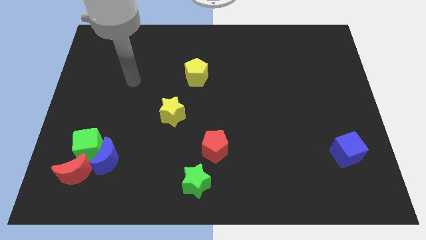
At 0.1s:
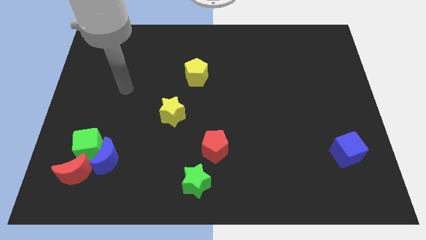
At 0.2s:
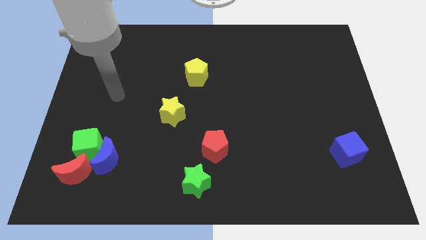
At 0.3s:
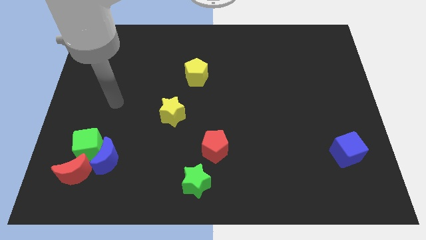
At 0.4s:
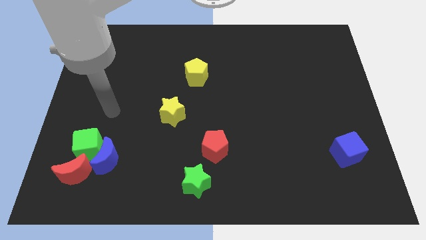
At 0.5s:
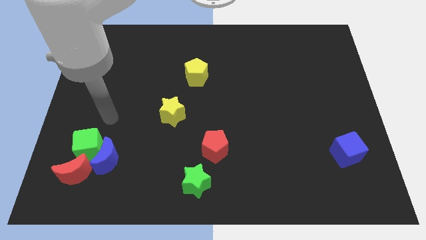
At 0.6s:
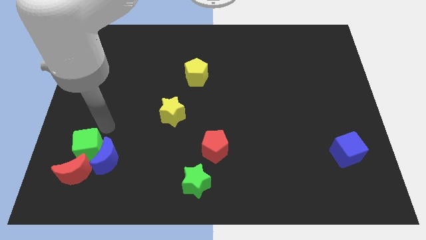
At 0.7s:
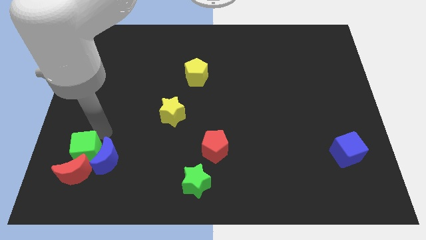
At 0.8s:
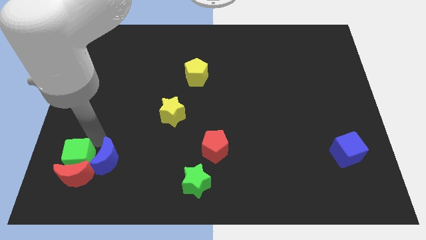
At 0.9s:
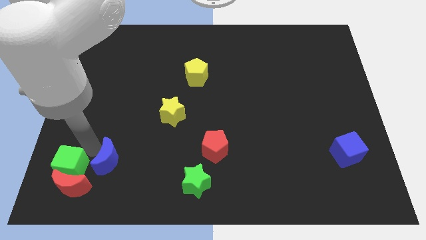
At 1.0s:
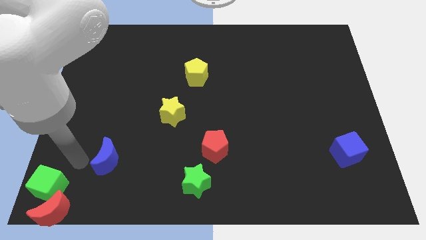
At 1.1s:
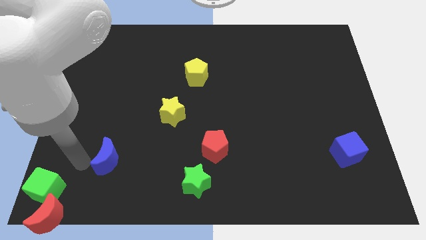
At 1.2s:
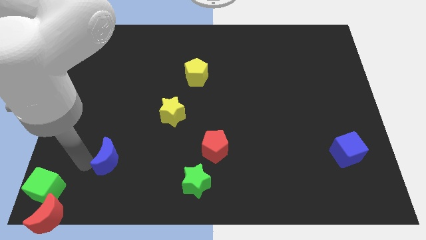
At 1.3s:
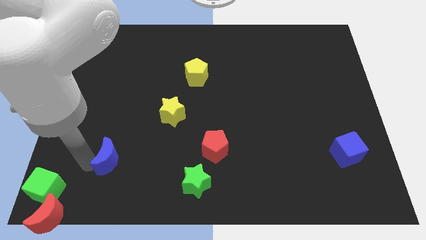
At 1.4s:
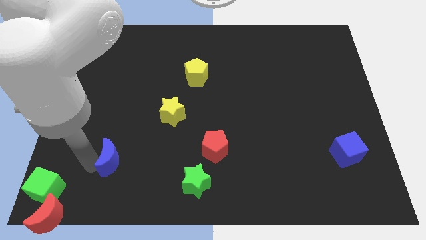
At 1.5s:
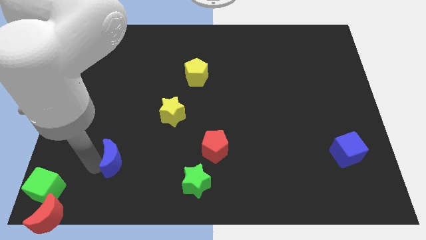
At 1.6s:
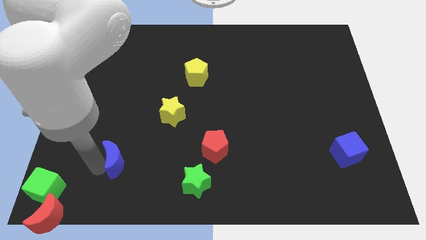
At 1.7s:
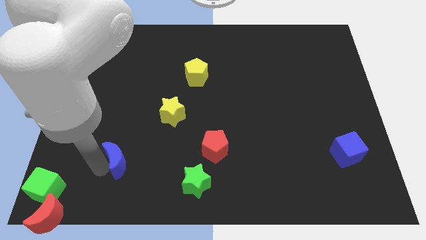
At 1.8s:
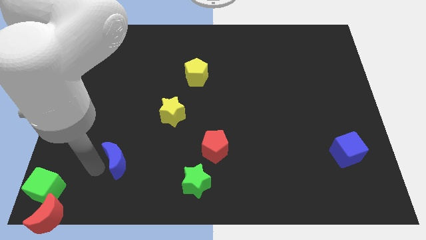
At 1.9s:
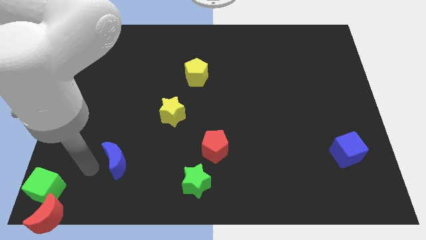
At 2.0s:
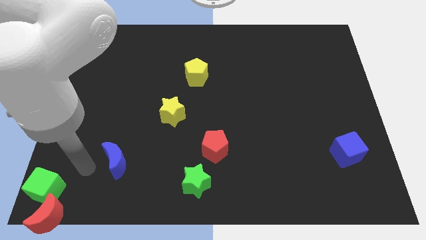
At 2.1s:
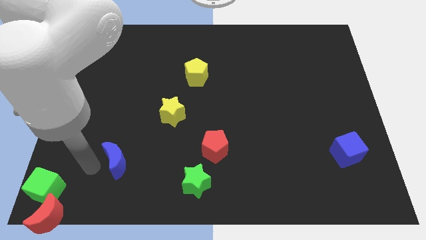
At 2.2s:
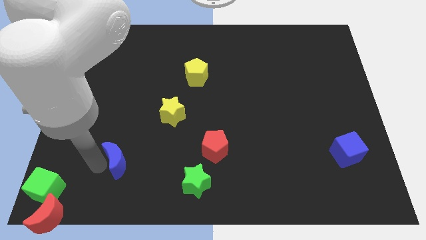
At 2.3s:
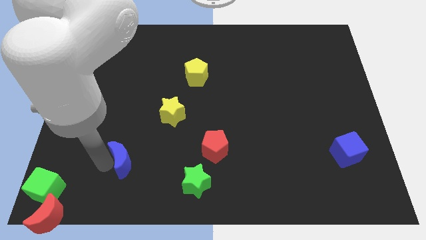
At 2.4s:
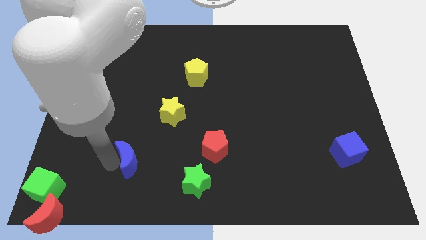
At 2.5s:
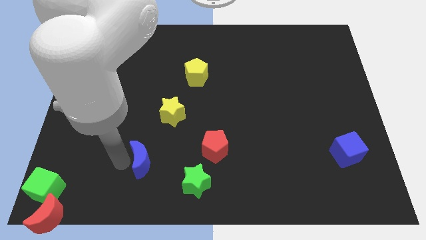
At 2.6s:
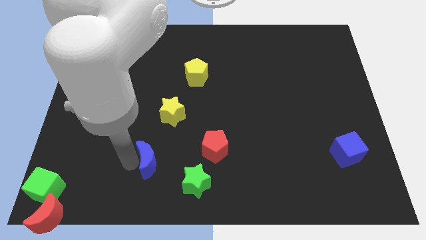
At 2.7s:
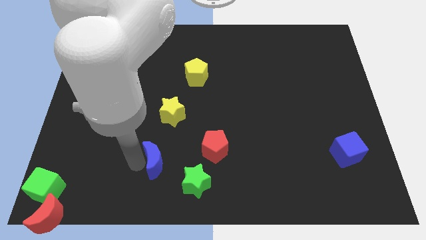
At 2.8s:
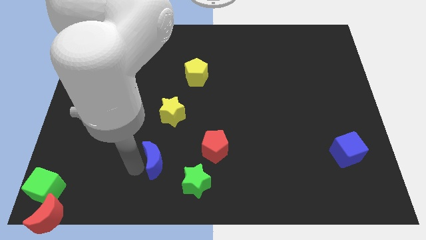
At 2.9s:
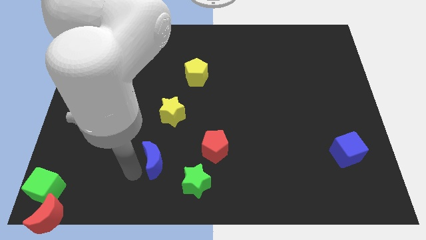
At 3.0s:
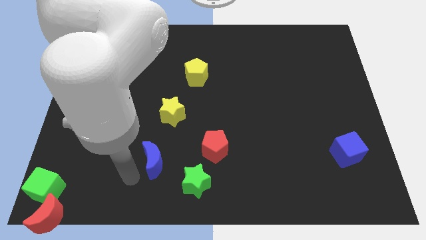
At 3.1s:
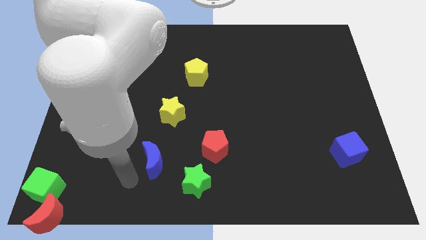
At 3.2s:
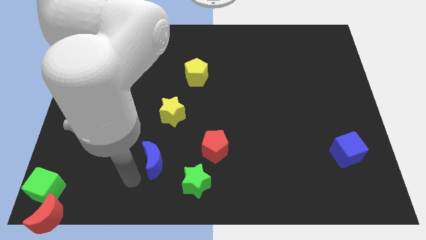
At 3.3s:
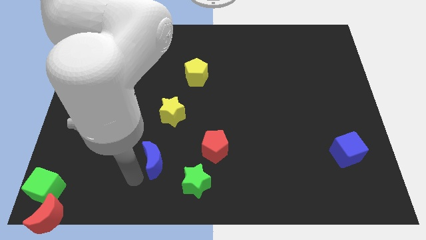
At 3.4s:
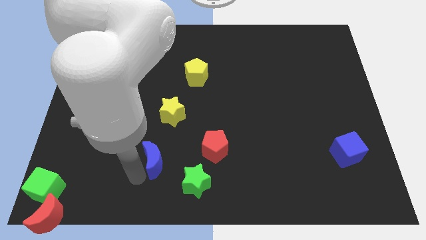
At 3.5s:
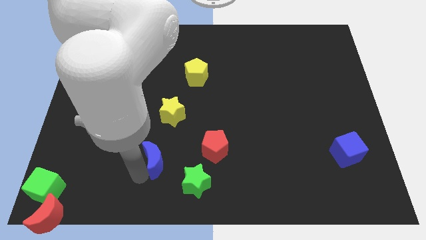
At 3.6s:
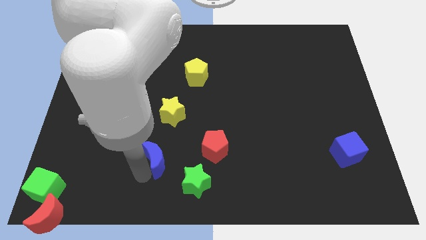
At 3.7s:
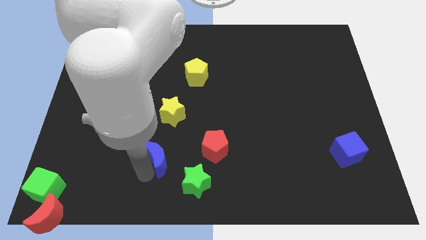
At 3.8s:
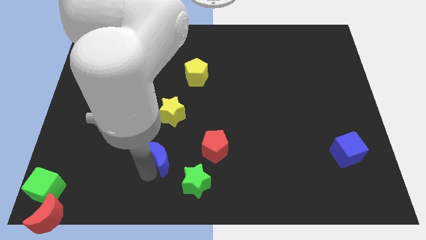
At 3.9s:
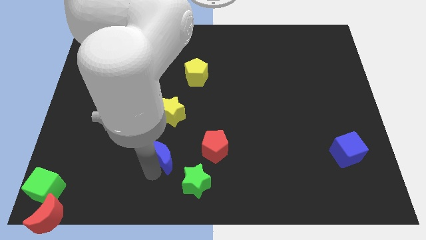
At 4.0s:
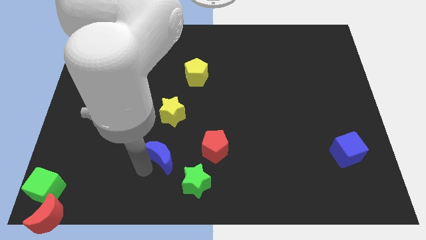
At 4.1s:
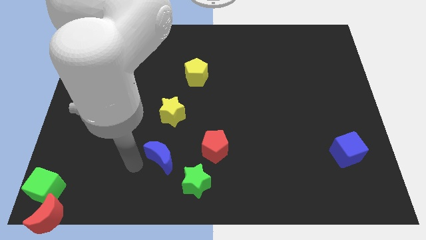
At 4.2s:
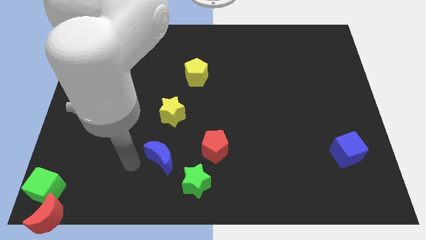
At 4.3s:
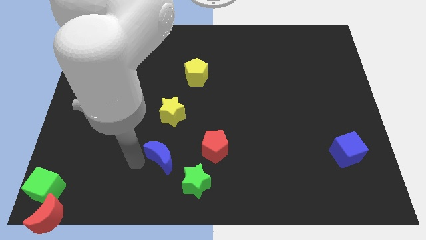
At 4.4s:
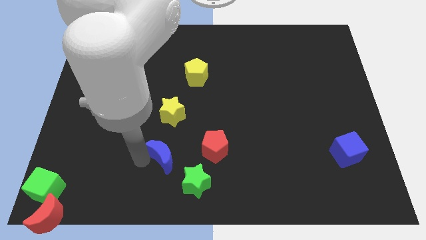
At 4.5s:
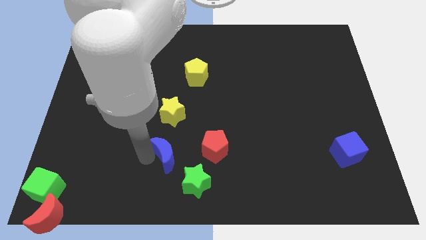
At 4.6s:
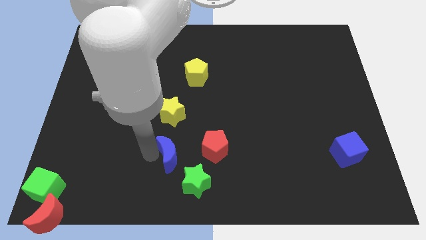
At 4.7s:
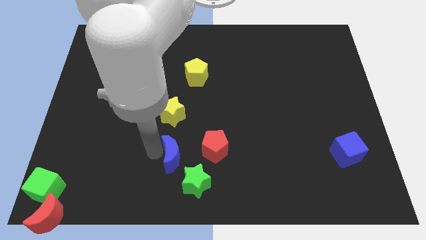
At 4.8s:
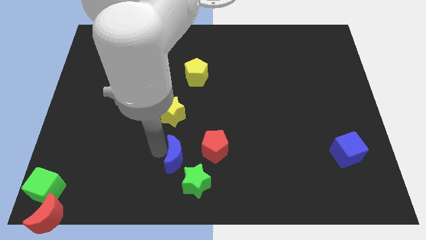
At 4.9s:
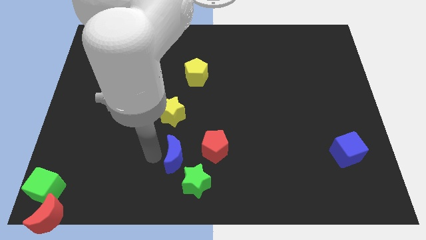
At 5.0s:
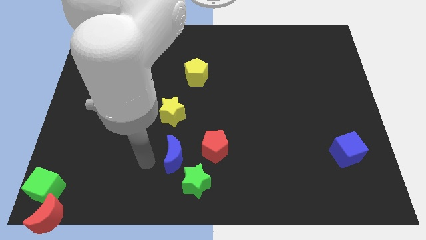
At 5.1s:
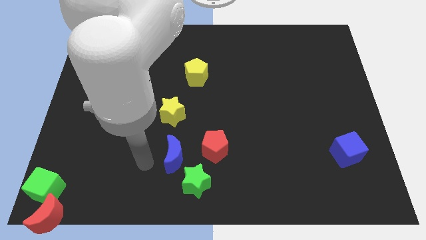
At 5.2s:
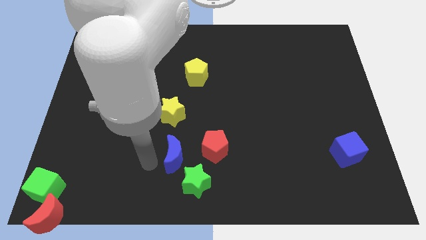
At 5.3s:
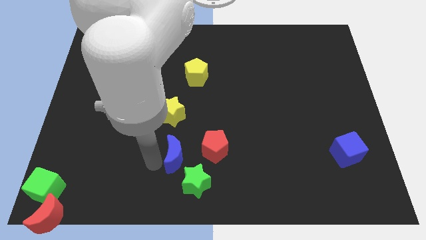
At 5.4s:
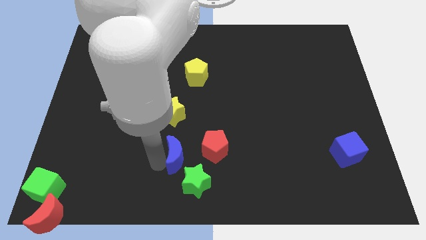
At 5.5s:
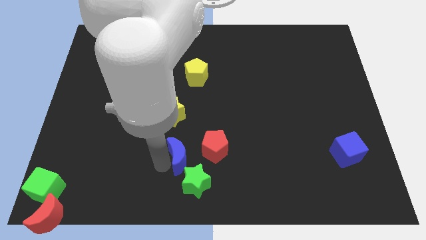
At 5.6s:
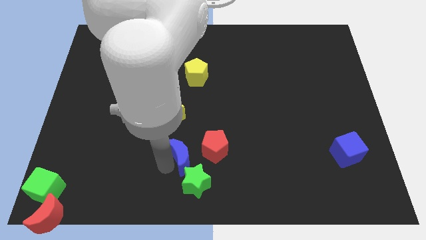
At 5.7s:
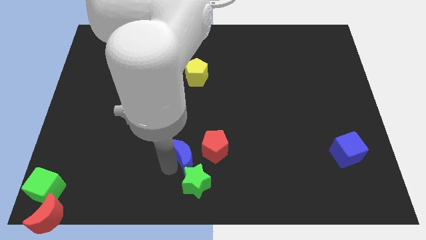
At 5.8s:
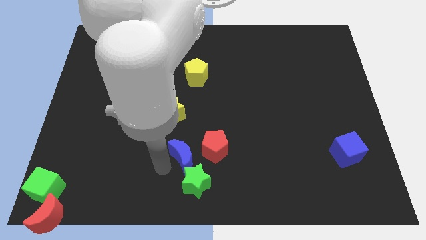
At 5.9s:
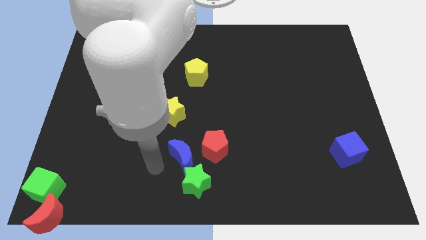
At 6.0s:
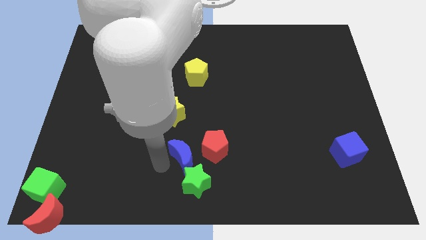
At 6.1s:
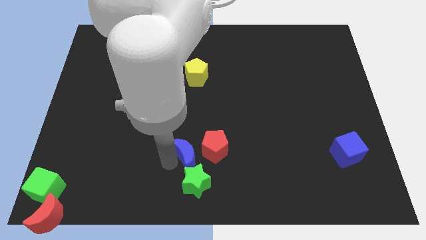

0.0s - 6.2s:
put the blue moon towards the red pentagon

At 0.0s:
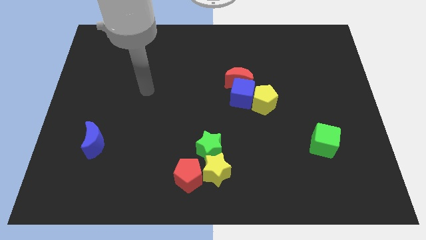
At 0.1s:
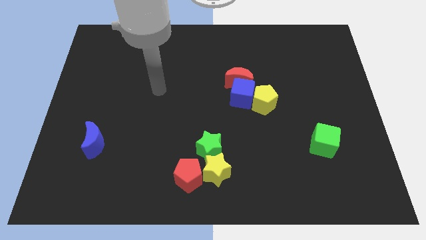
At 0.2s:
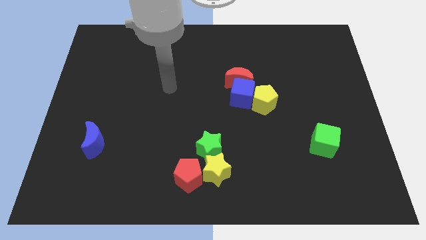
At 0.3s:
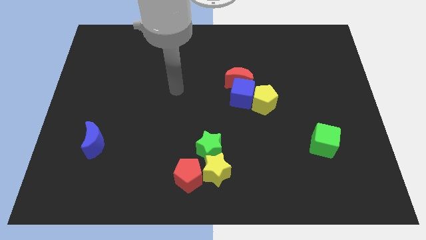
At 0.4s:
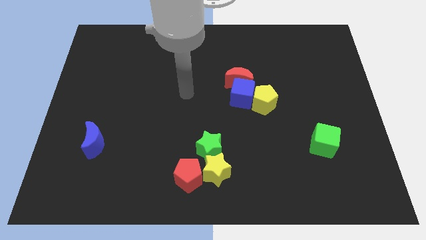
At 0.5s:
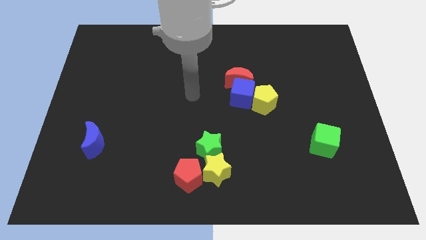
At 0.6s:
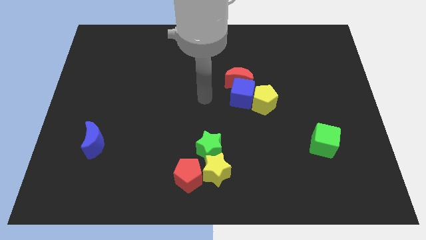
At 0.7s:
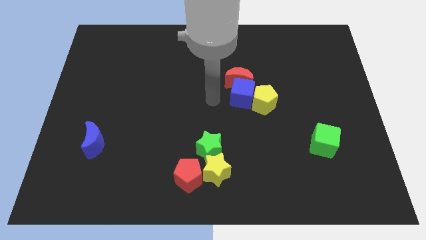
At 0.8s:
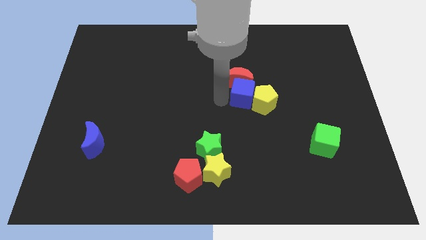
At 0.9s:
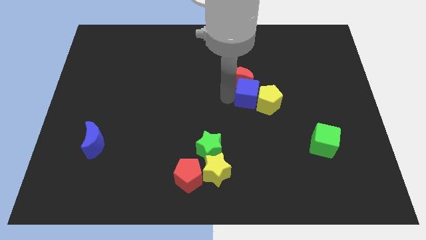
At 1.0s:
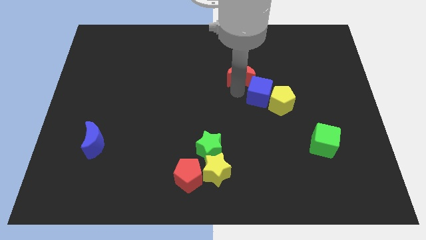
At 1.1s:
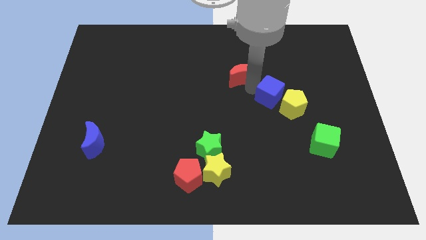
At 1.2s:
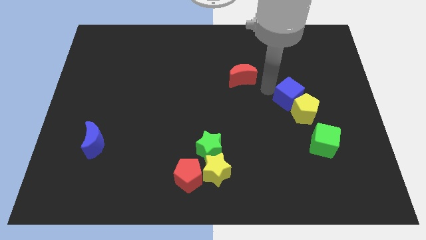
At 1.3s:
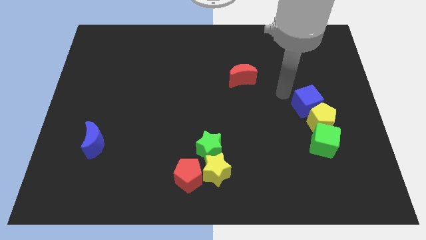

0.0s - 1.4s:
put the yellow pentagon next to the green cube
